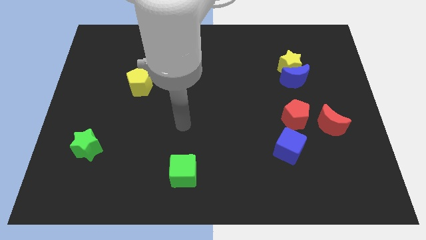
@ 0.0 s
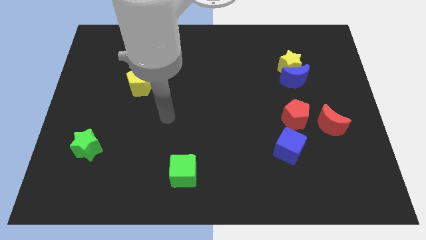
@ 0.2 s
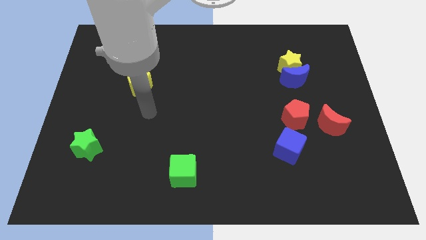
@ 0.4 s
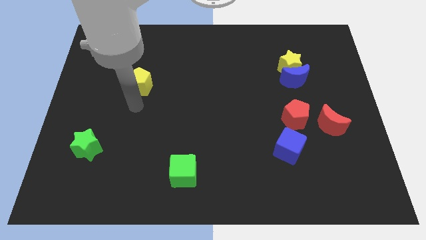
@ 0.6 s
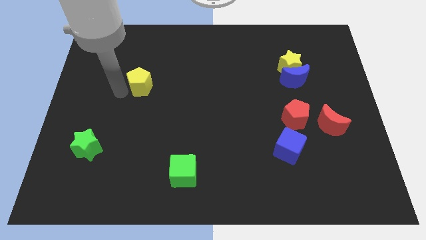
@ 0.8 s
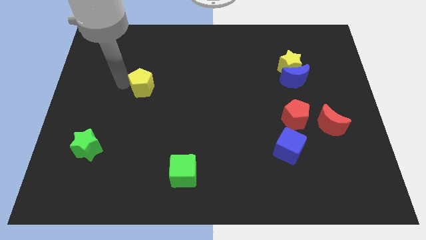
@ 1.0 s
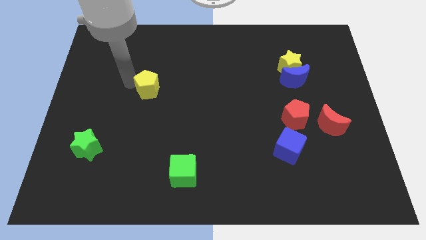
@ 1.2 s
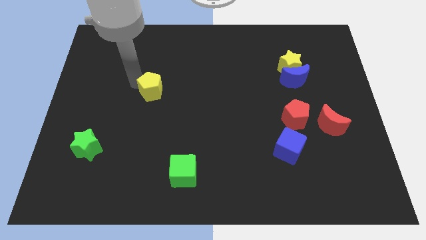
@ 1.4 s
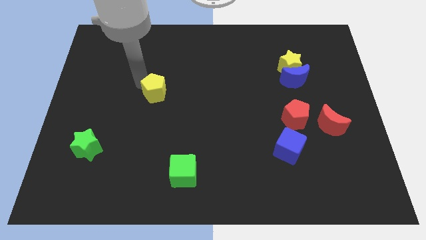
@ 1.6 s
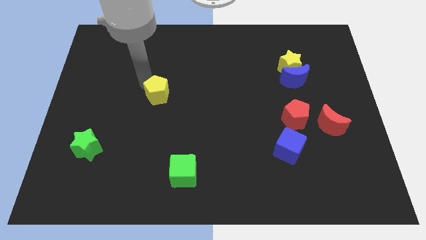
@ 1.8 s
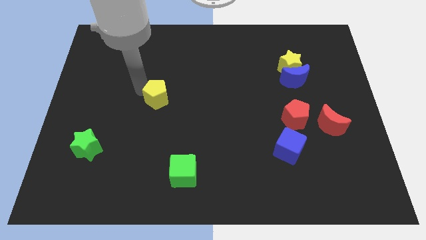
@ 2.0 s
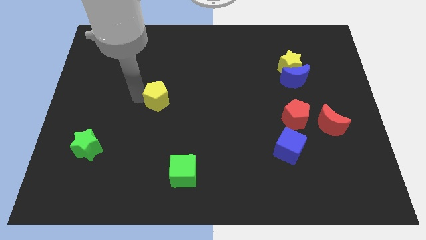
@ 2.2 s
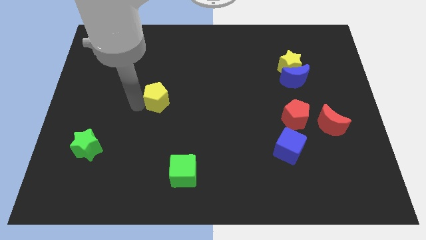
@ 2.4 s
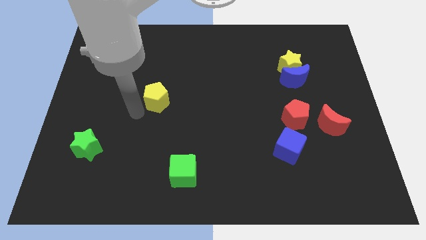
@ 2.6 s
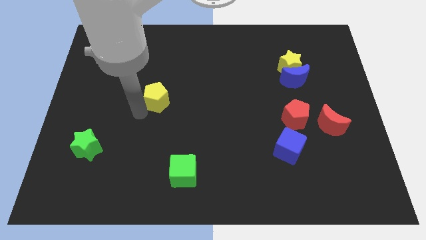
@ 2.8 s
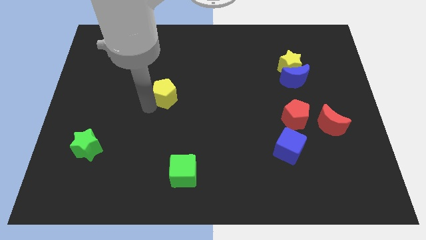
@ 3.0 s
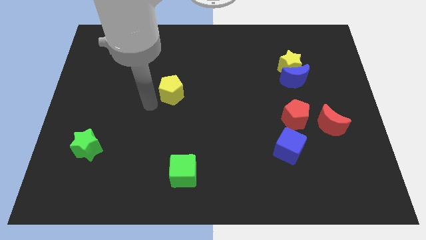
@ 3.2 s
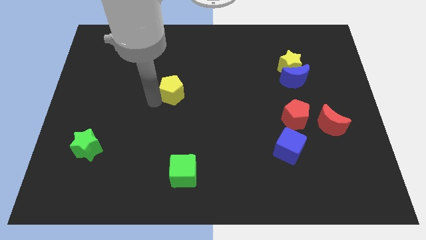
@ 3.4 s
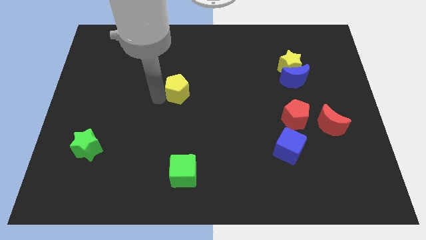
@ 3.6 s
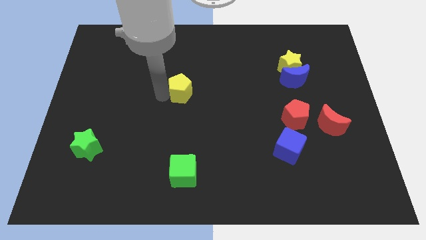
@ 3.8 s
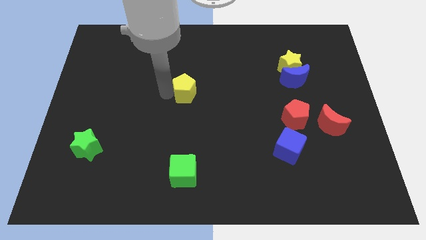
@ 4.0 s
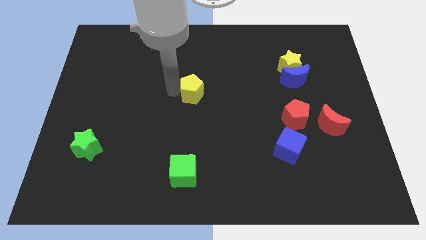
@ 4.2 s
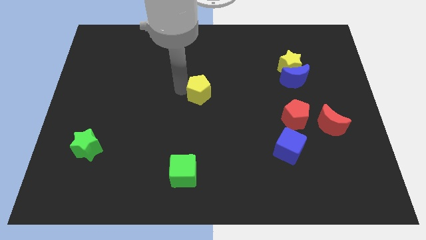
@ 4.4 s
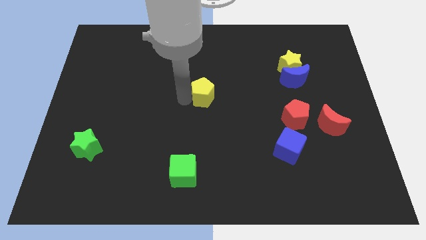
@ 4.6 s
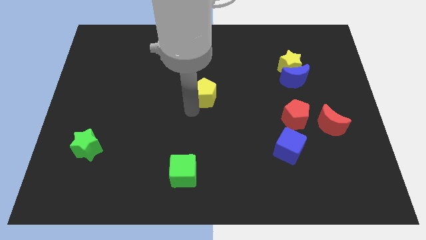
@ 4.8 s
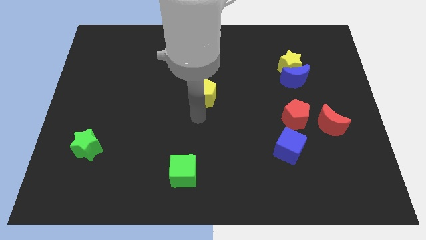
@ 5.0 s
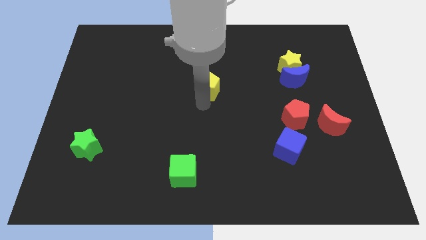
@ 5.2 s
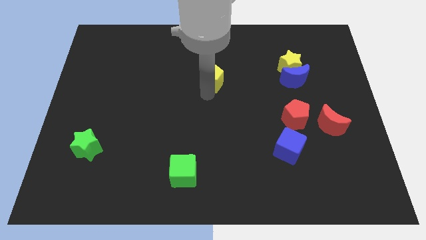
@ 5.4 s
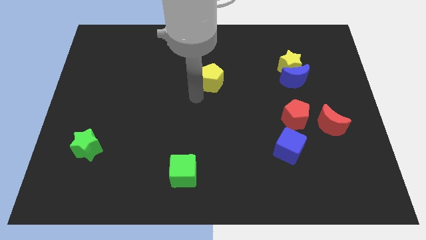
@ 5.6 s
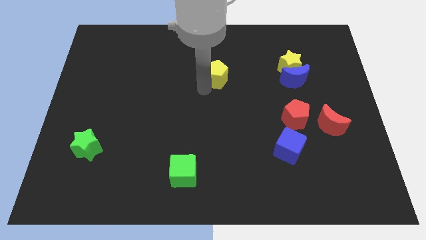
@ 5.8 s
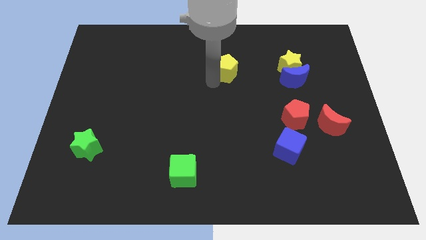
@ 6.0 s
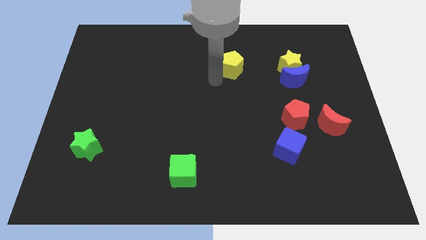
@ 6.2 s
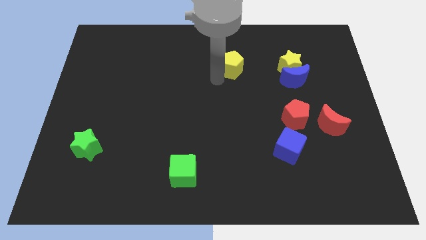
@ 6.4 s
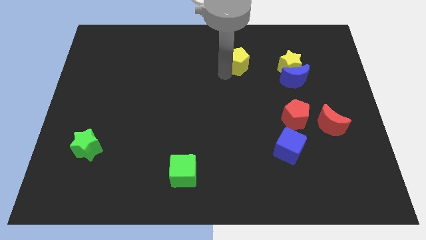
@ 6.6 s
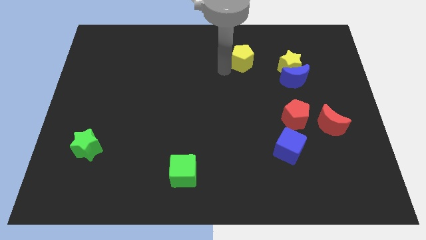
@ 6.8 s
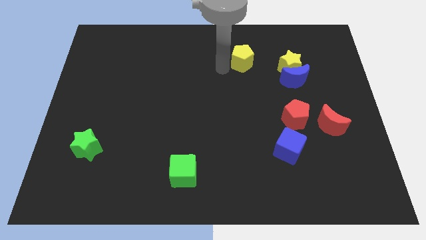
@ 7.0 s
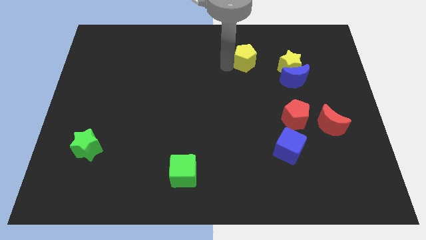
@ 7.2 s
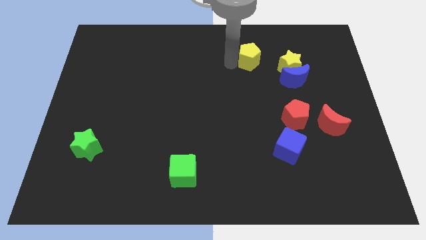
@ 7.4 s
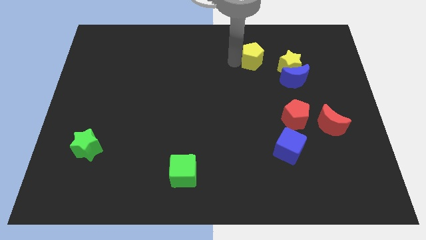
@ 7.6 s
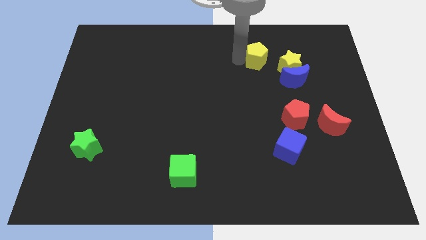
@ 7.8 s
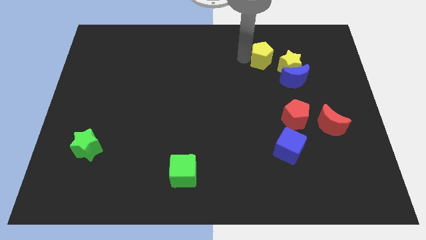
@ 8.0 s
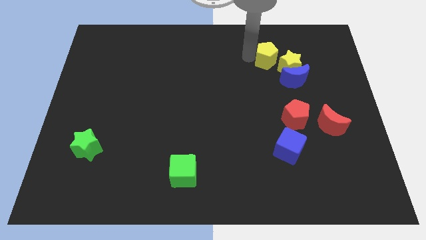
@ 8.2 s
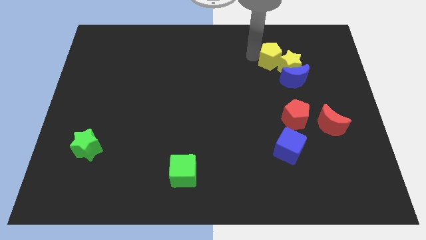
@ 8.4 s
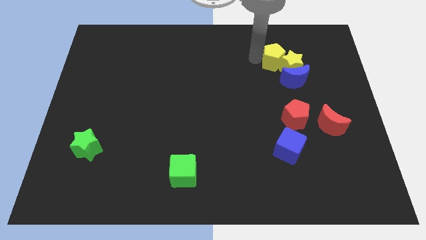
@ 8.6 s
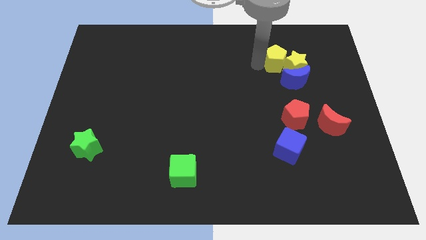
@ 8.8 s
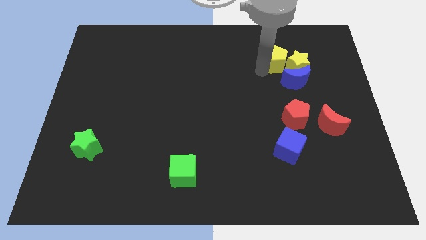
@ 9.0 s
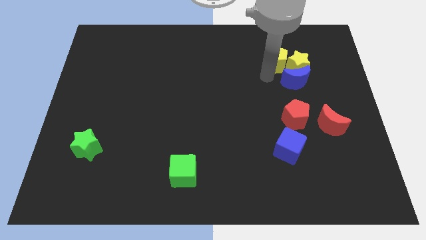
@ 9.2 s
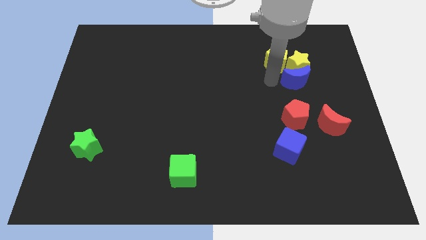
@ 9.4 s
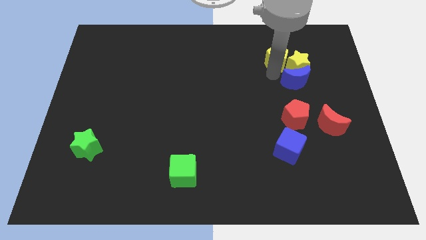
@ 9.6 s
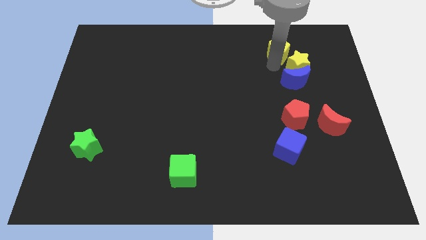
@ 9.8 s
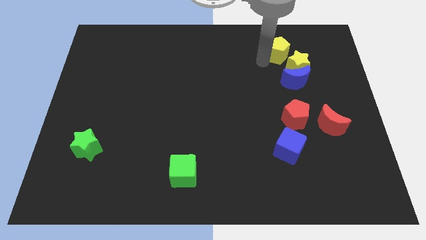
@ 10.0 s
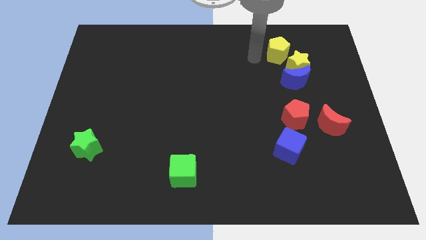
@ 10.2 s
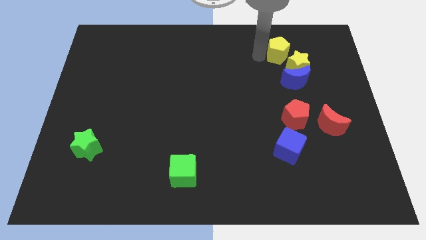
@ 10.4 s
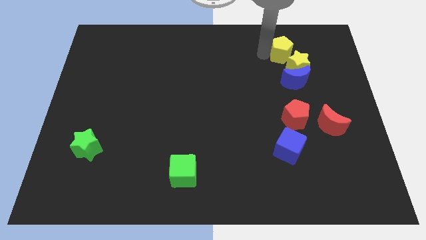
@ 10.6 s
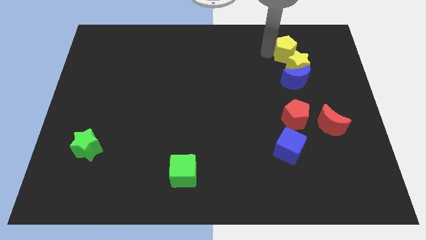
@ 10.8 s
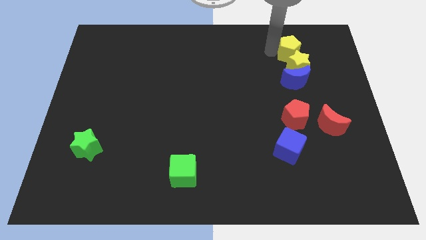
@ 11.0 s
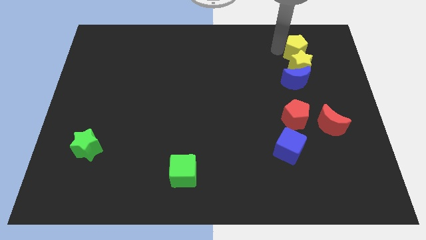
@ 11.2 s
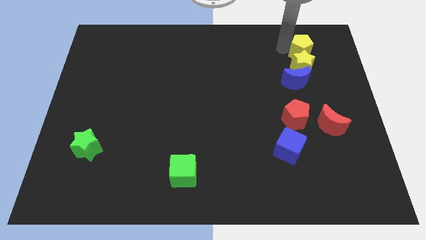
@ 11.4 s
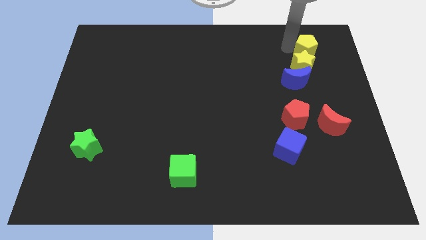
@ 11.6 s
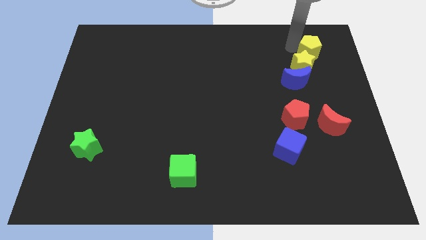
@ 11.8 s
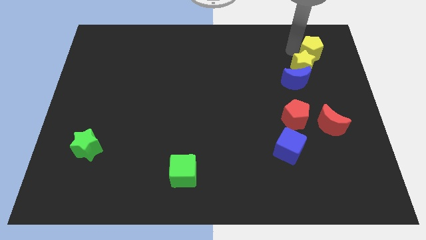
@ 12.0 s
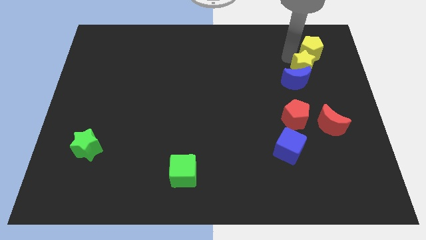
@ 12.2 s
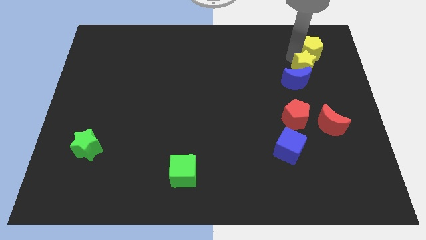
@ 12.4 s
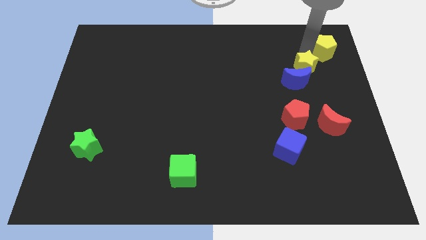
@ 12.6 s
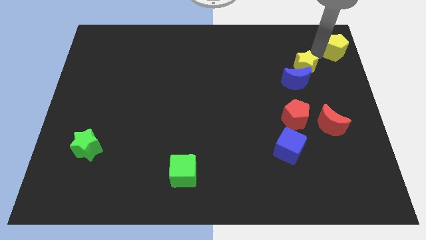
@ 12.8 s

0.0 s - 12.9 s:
put the yellow pentagon to the top right
